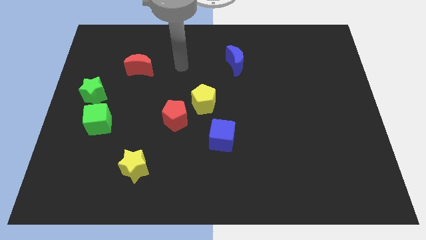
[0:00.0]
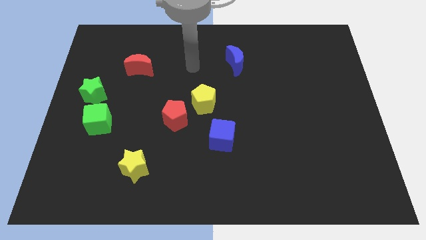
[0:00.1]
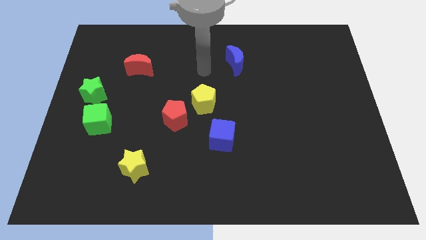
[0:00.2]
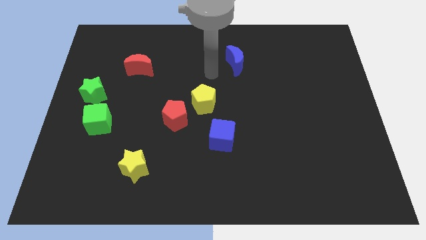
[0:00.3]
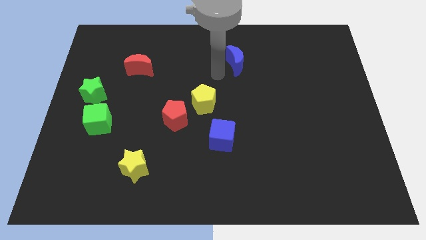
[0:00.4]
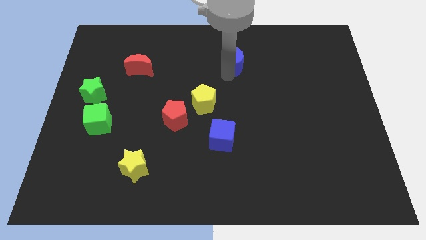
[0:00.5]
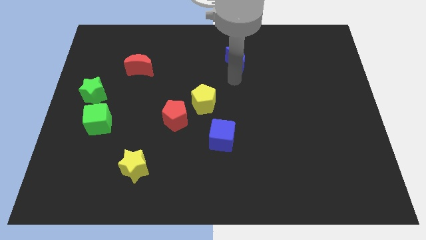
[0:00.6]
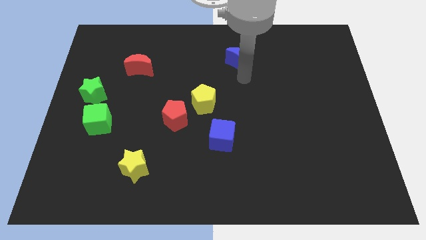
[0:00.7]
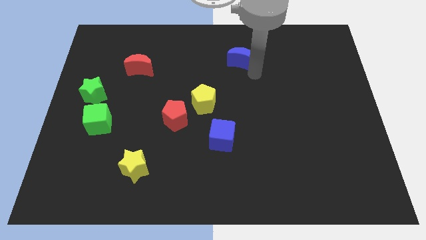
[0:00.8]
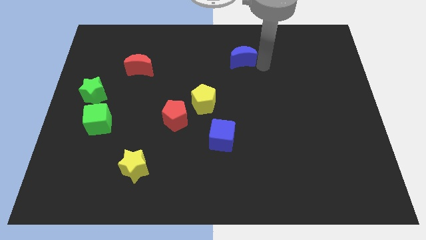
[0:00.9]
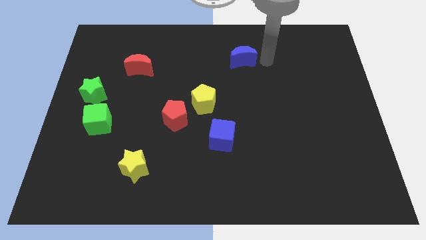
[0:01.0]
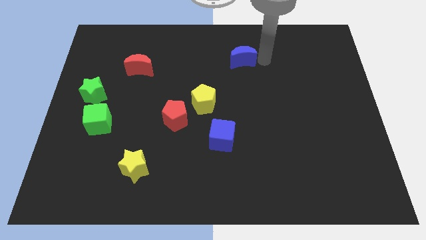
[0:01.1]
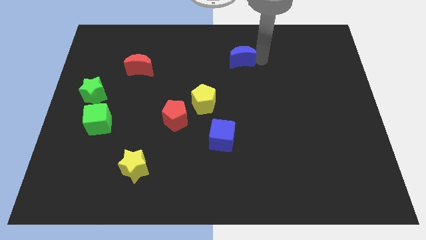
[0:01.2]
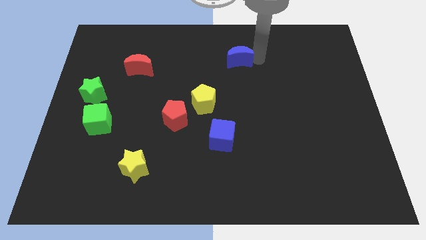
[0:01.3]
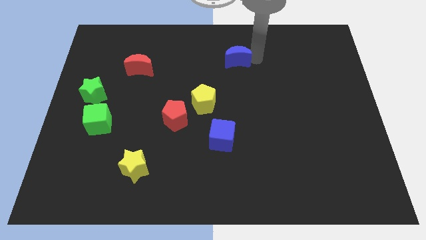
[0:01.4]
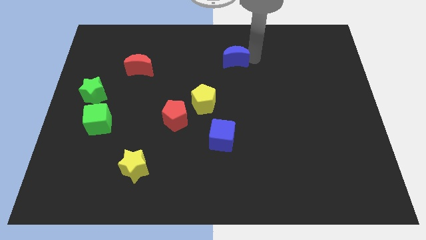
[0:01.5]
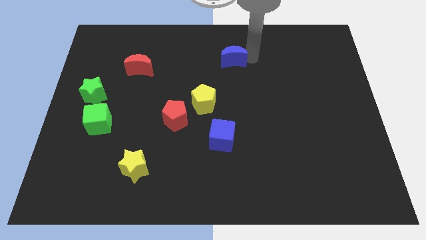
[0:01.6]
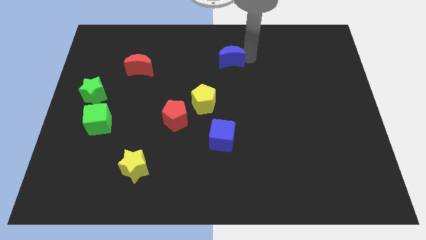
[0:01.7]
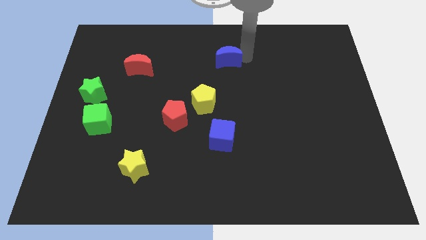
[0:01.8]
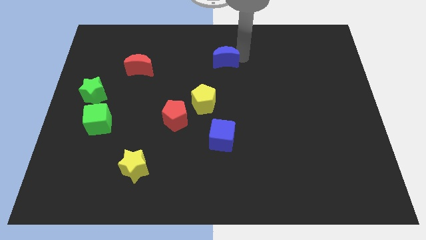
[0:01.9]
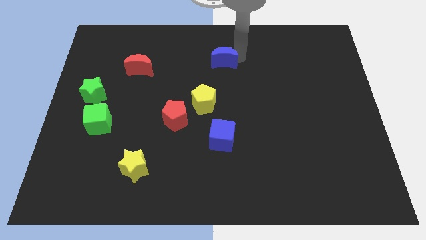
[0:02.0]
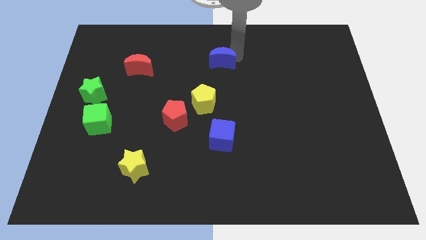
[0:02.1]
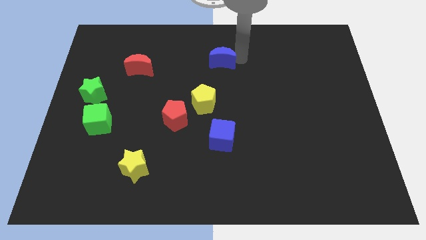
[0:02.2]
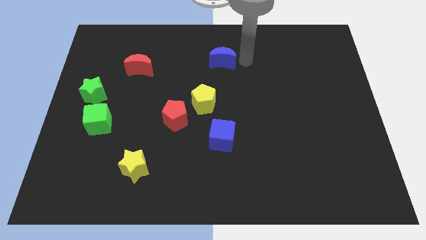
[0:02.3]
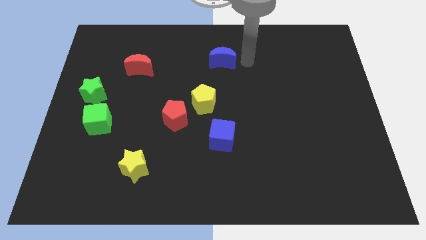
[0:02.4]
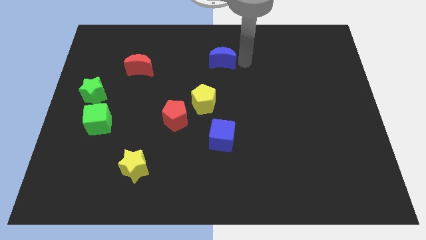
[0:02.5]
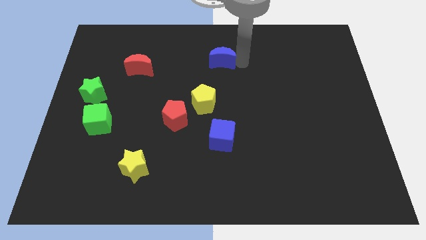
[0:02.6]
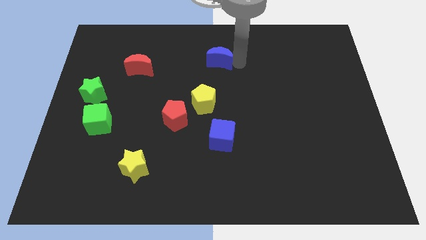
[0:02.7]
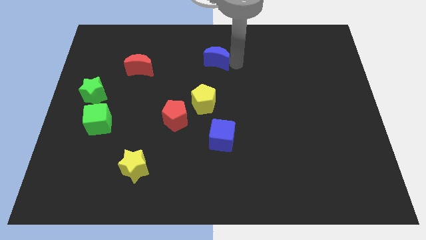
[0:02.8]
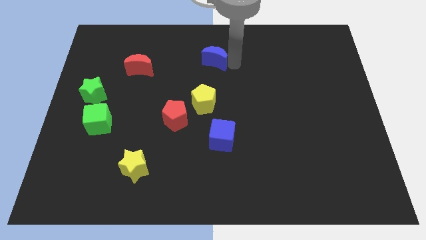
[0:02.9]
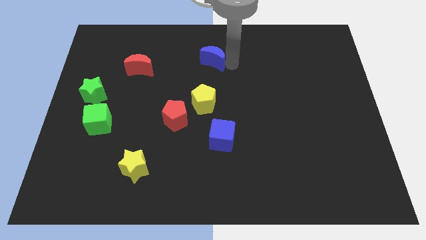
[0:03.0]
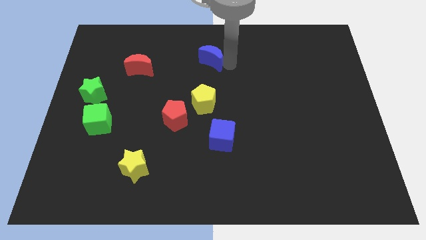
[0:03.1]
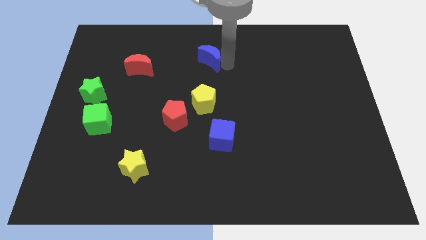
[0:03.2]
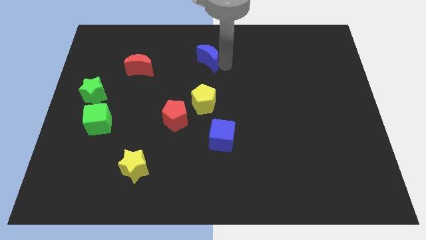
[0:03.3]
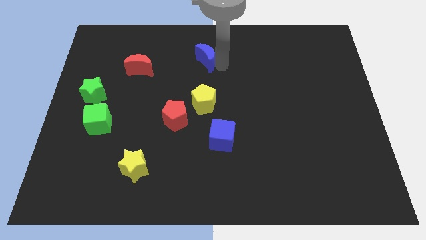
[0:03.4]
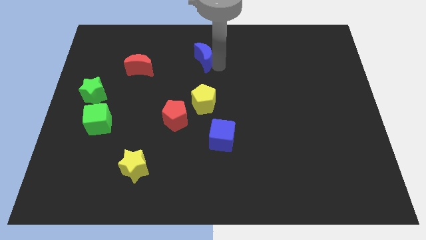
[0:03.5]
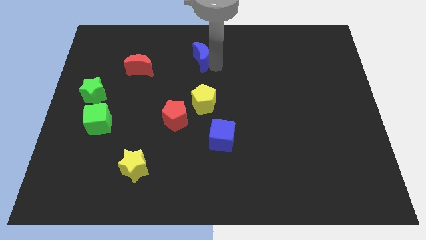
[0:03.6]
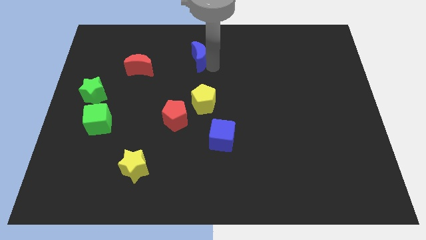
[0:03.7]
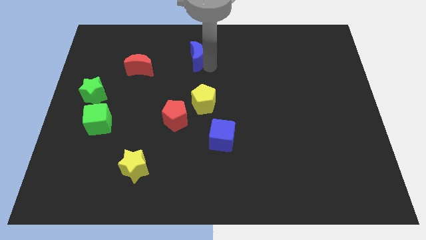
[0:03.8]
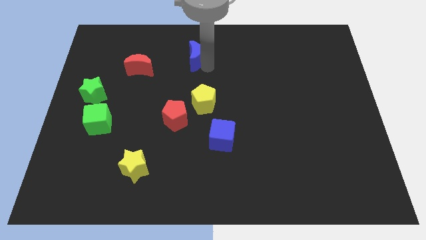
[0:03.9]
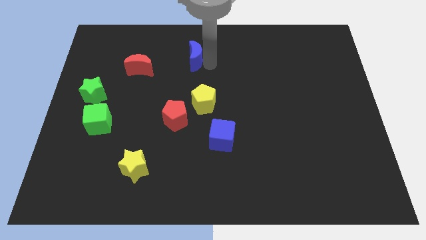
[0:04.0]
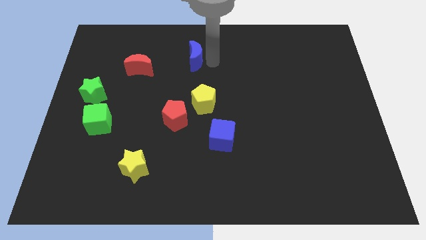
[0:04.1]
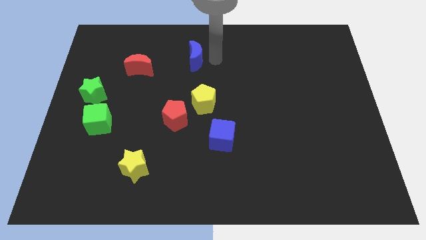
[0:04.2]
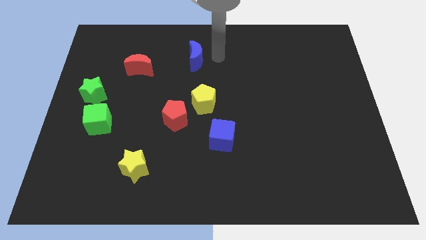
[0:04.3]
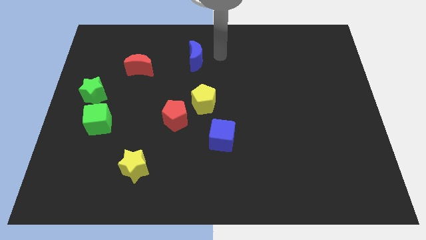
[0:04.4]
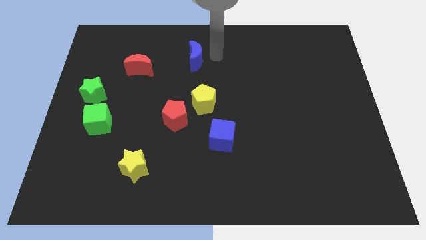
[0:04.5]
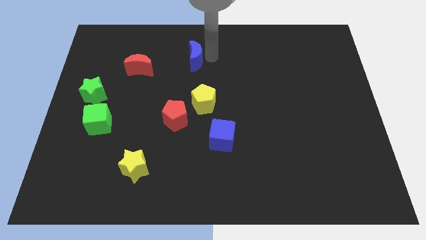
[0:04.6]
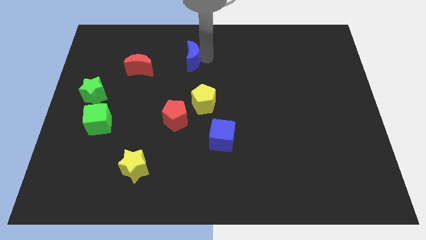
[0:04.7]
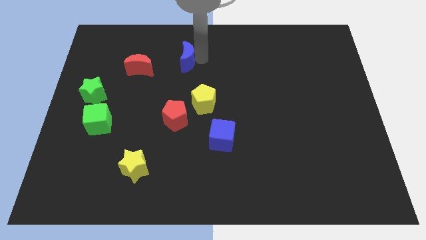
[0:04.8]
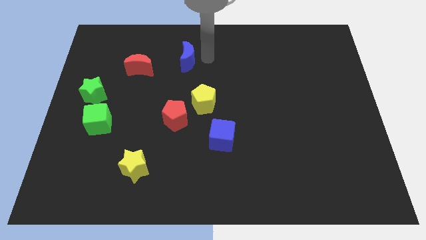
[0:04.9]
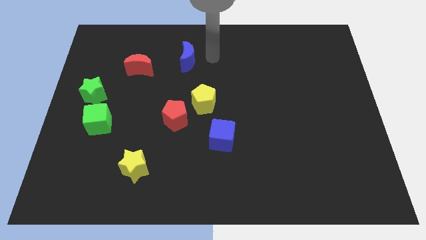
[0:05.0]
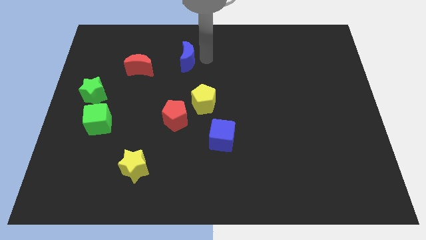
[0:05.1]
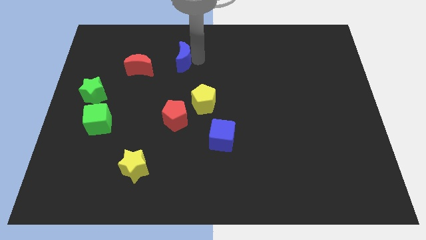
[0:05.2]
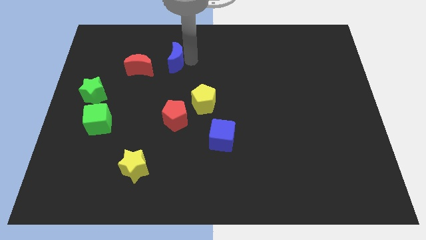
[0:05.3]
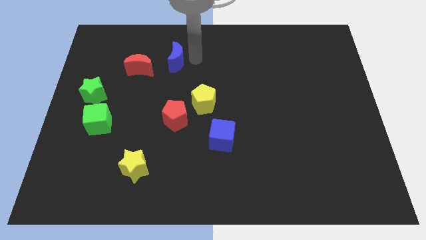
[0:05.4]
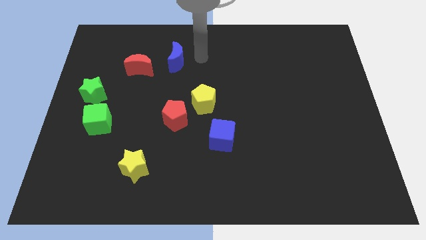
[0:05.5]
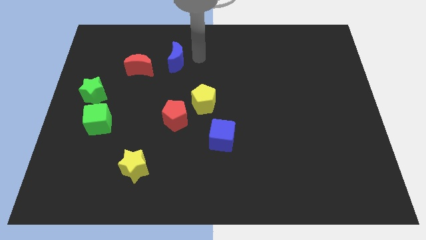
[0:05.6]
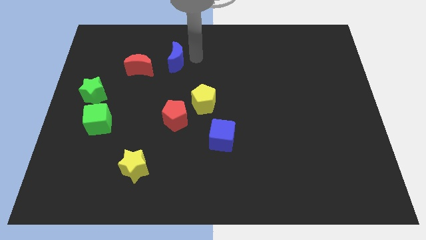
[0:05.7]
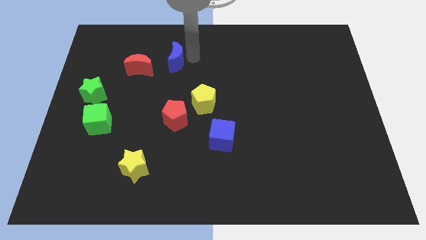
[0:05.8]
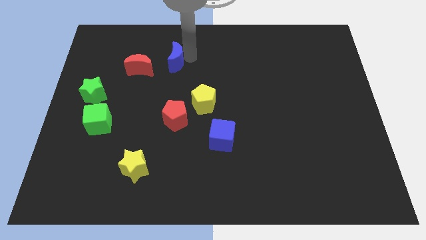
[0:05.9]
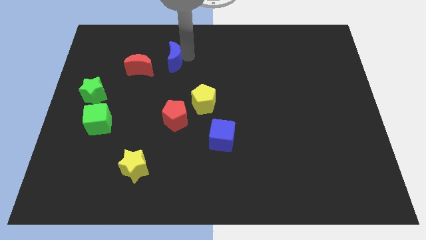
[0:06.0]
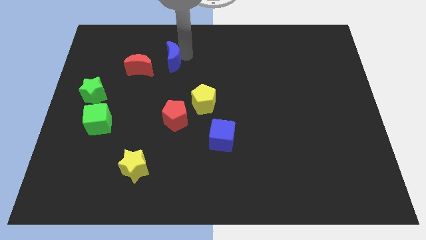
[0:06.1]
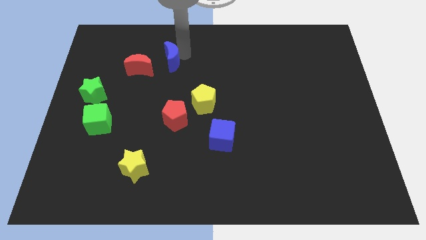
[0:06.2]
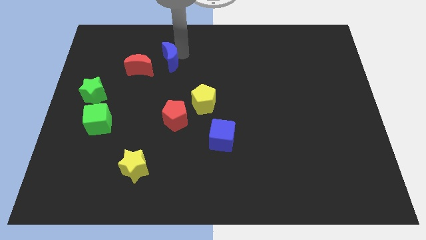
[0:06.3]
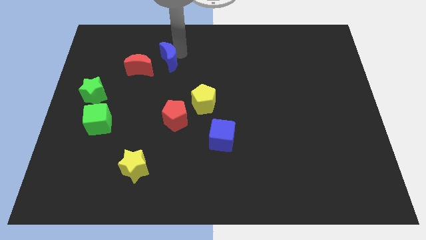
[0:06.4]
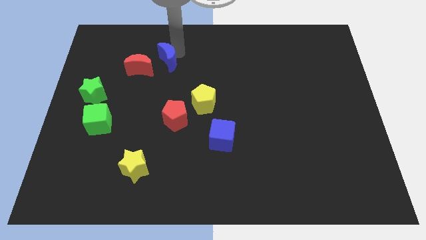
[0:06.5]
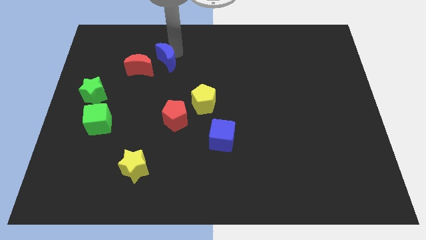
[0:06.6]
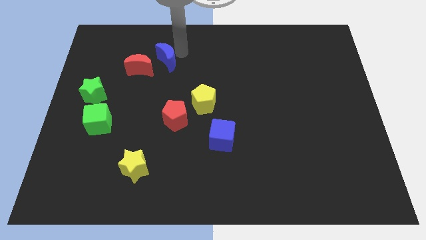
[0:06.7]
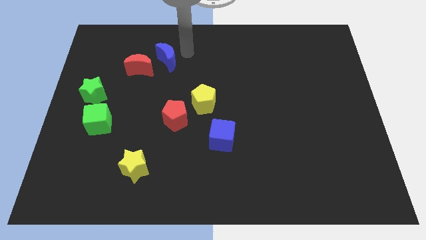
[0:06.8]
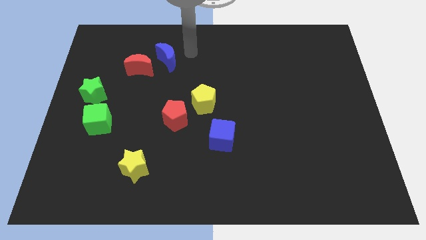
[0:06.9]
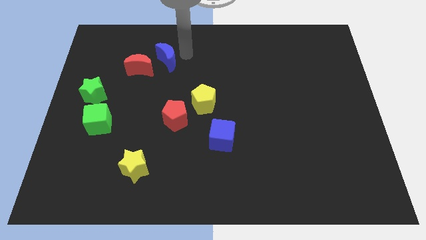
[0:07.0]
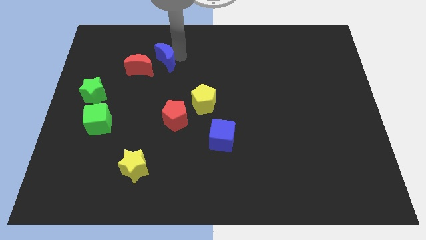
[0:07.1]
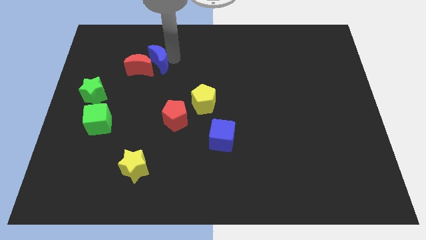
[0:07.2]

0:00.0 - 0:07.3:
push the blue moon towards the red moon
